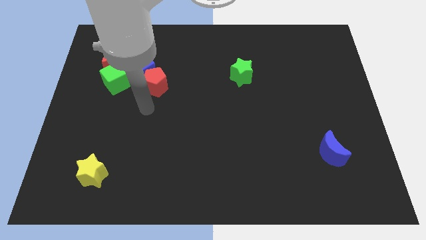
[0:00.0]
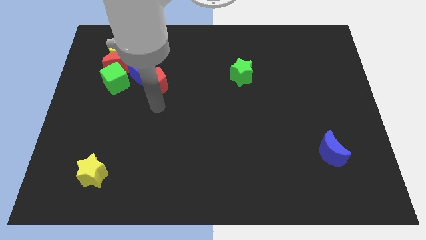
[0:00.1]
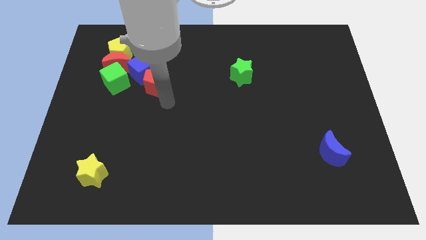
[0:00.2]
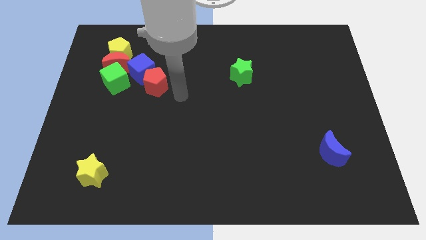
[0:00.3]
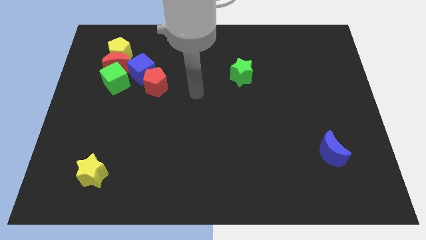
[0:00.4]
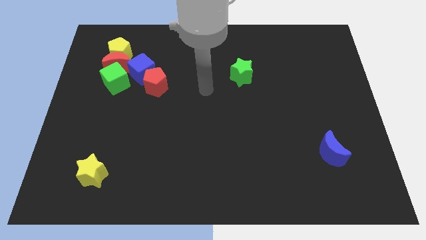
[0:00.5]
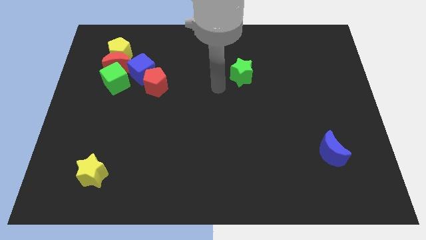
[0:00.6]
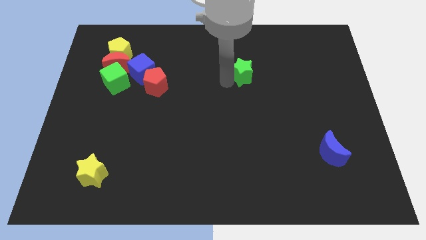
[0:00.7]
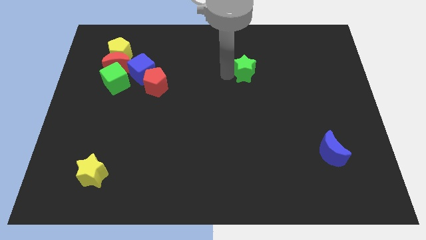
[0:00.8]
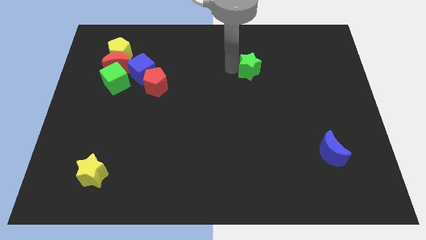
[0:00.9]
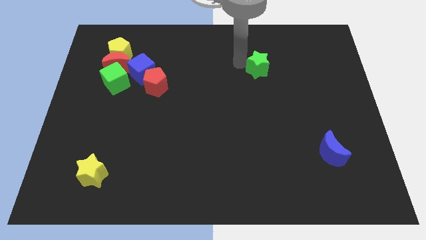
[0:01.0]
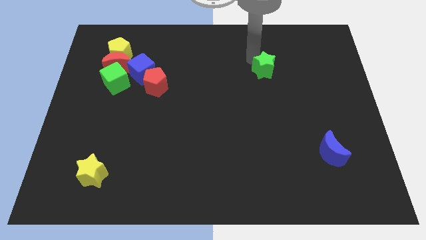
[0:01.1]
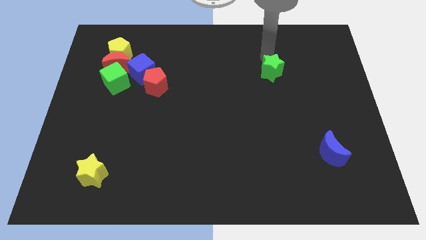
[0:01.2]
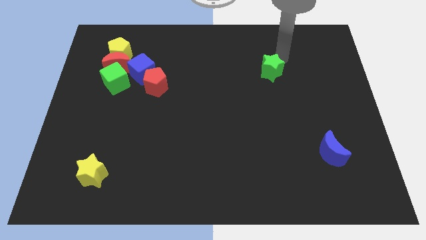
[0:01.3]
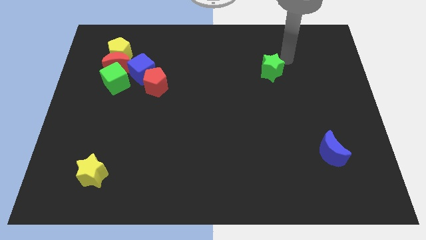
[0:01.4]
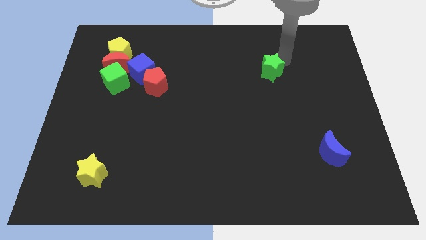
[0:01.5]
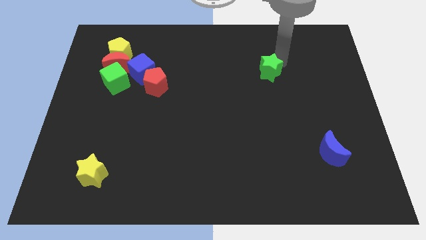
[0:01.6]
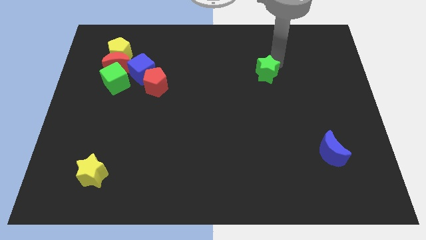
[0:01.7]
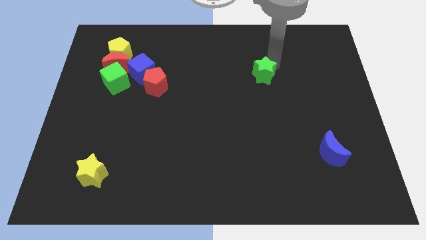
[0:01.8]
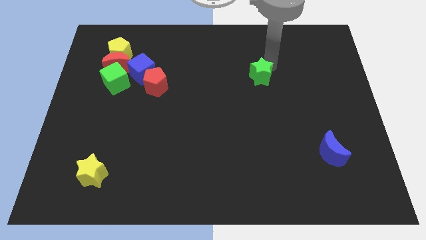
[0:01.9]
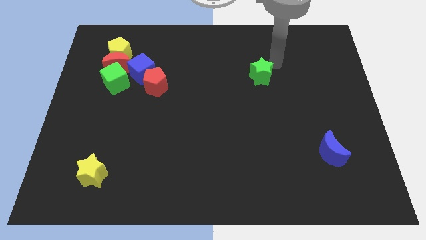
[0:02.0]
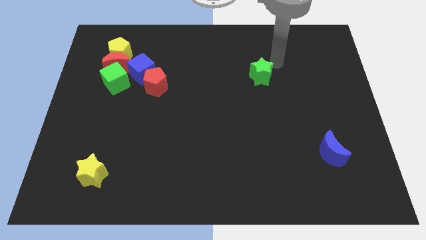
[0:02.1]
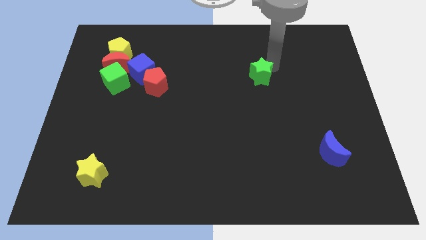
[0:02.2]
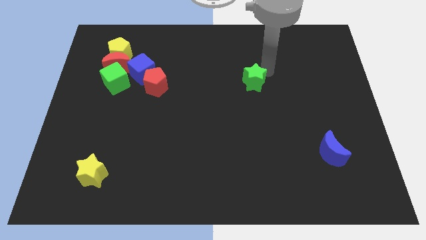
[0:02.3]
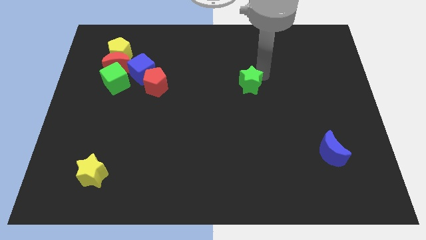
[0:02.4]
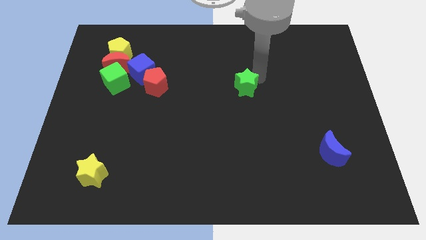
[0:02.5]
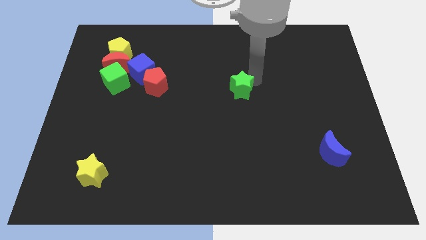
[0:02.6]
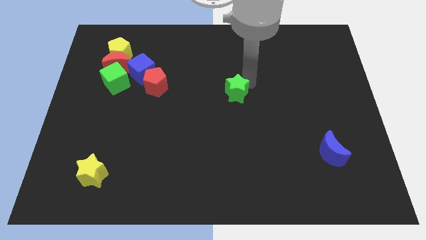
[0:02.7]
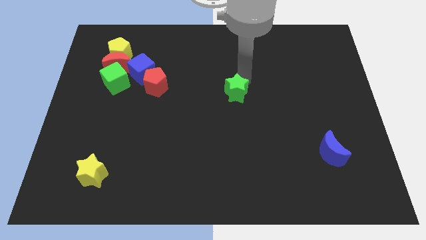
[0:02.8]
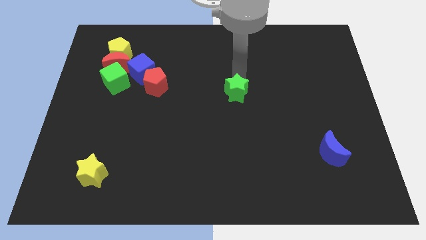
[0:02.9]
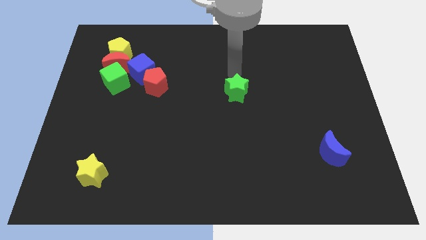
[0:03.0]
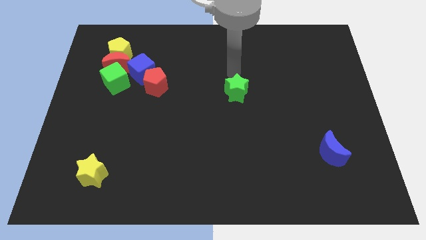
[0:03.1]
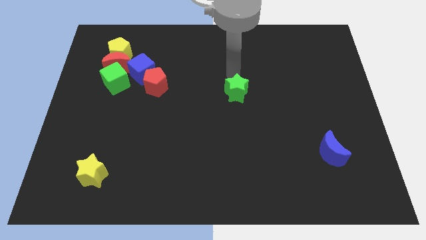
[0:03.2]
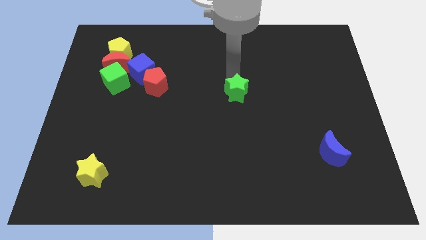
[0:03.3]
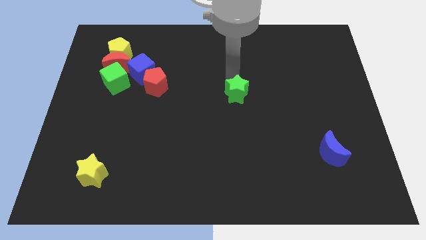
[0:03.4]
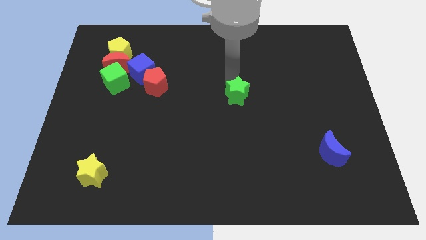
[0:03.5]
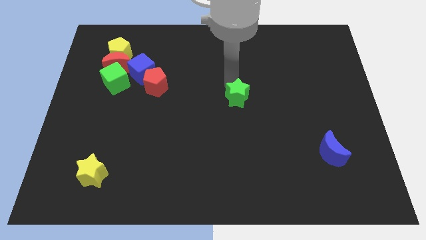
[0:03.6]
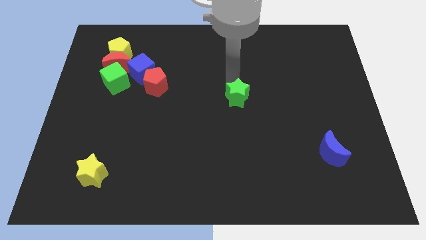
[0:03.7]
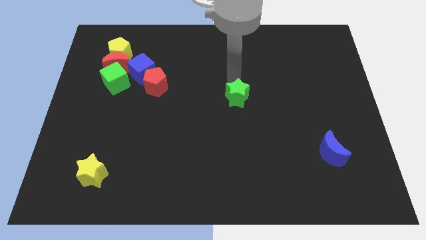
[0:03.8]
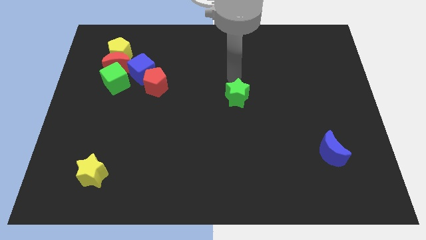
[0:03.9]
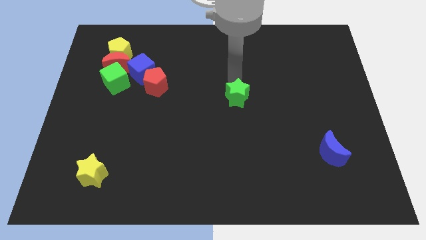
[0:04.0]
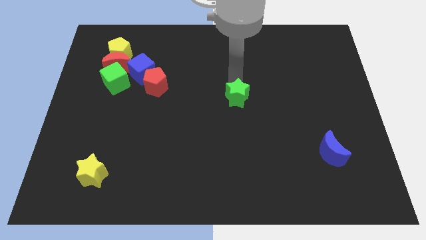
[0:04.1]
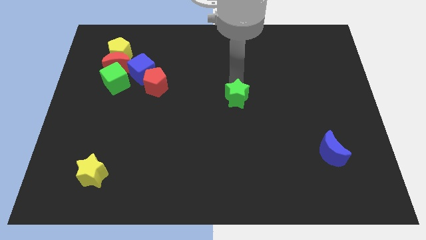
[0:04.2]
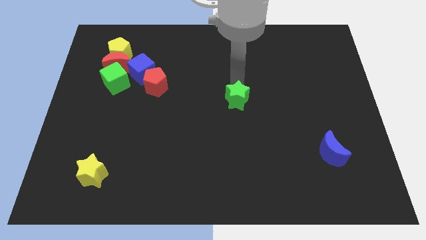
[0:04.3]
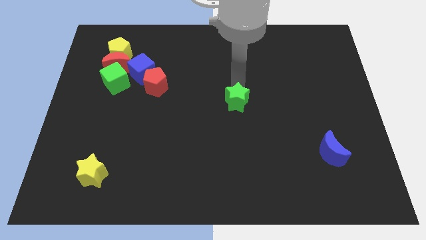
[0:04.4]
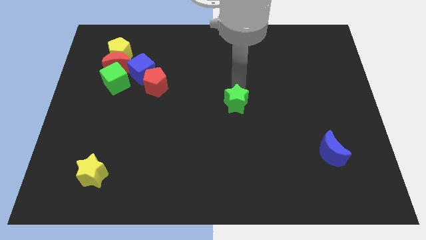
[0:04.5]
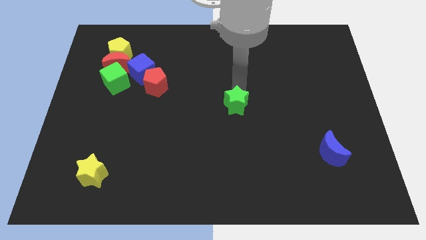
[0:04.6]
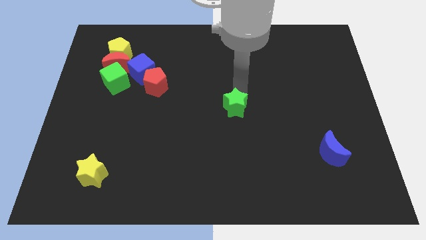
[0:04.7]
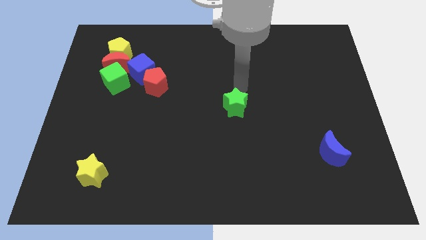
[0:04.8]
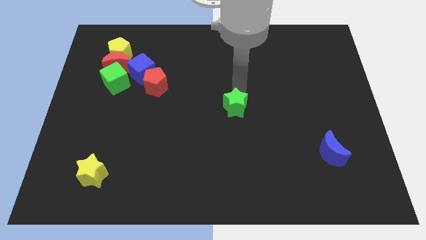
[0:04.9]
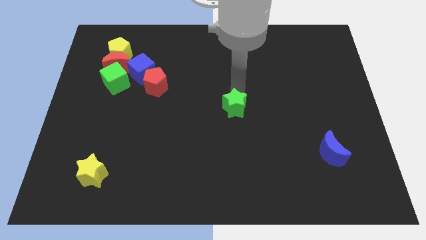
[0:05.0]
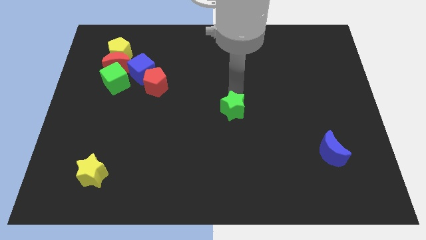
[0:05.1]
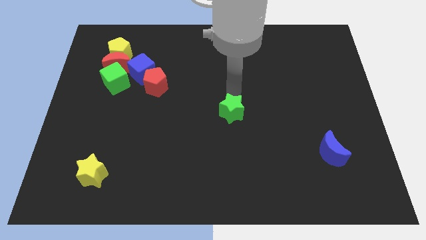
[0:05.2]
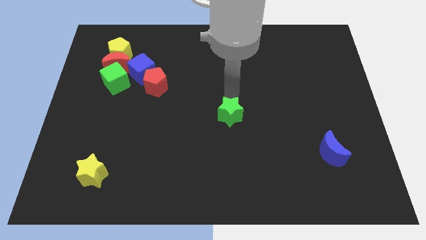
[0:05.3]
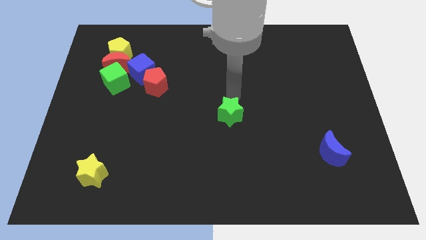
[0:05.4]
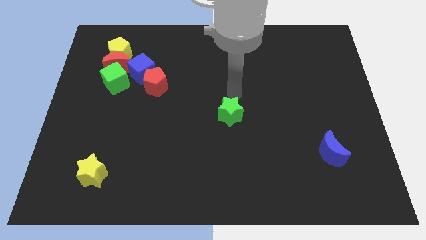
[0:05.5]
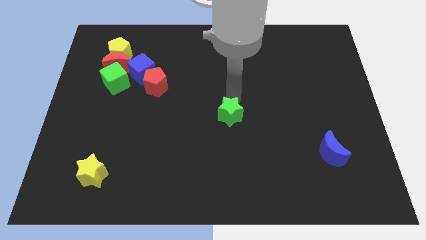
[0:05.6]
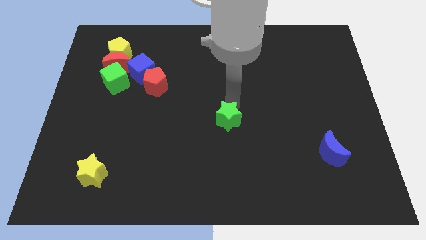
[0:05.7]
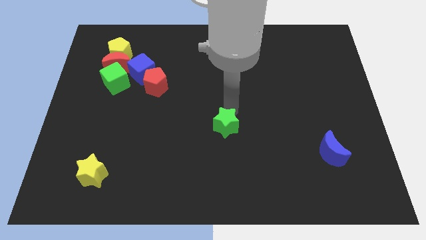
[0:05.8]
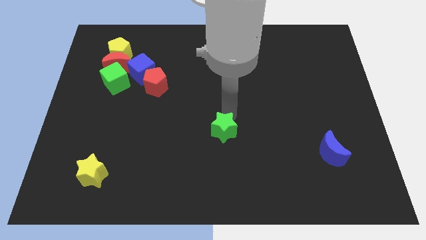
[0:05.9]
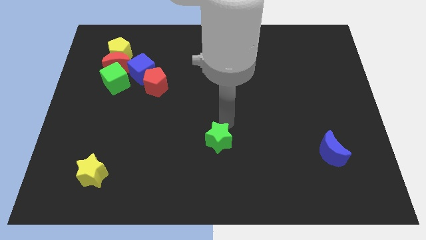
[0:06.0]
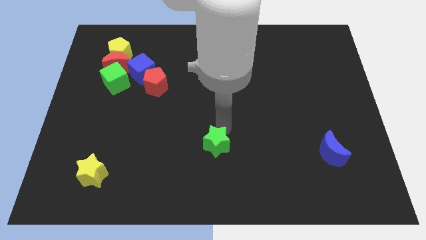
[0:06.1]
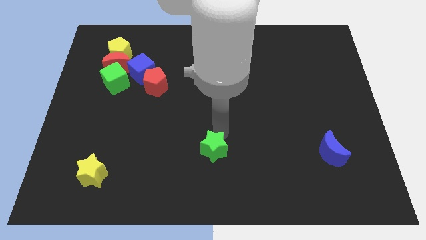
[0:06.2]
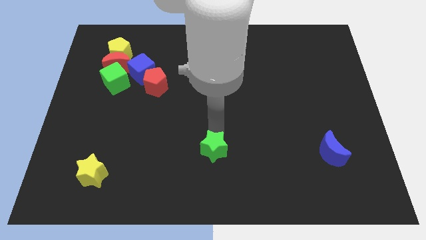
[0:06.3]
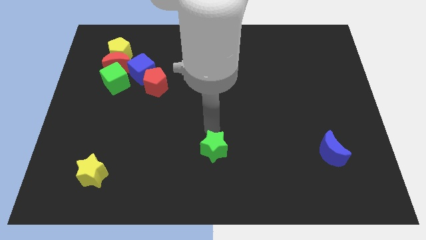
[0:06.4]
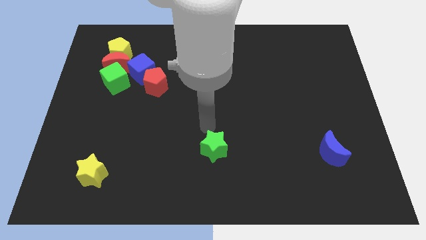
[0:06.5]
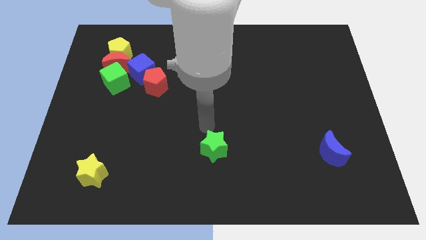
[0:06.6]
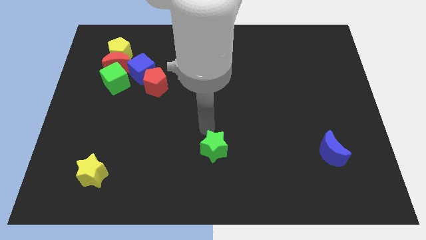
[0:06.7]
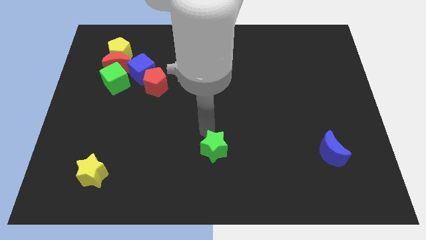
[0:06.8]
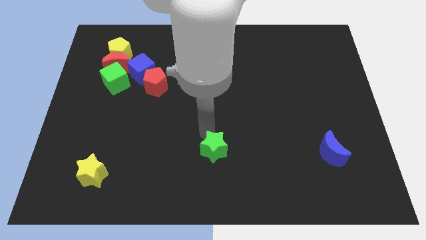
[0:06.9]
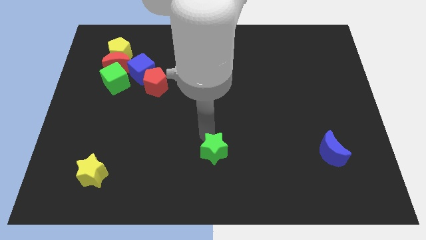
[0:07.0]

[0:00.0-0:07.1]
move the green star to the bottom side
